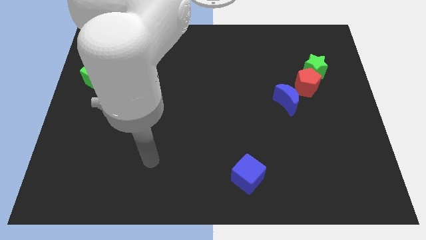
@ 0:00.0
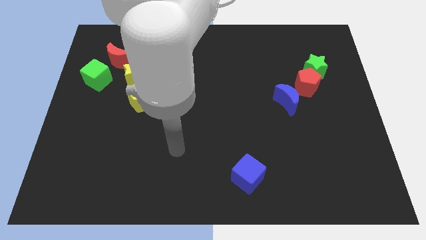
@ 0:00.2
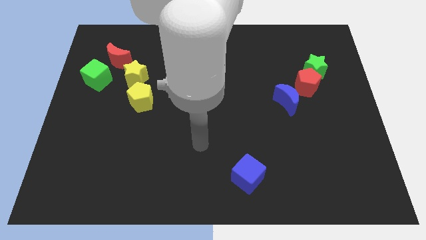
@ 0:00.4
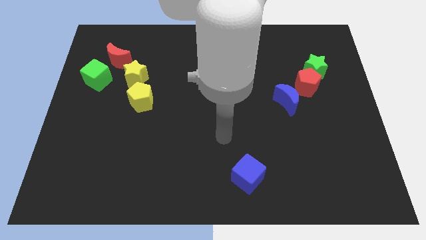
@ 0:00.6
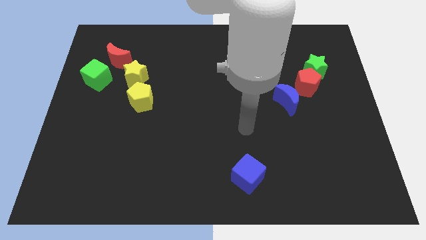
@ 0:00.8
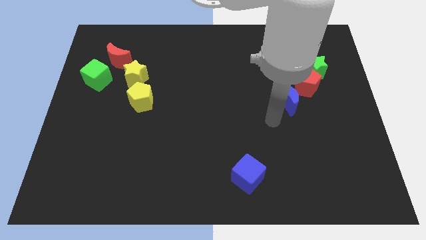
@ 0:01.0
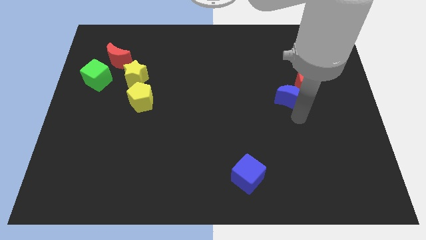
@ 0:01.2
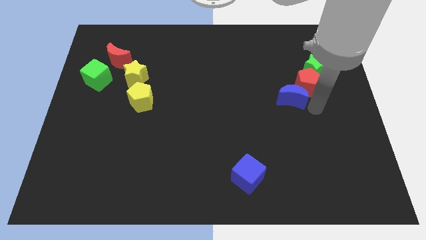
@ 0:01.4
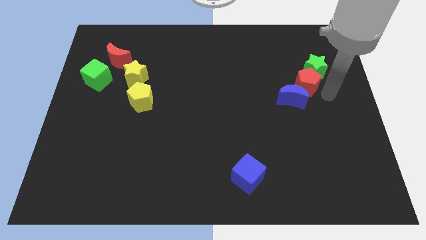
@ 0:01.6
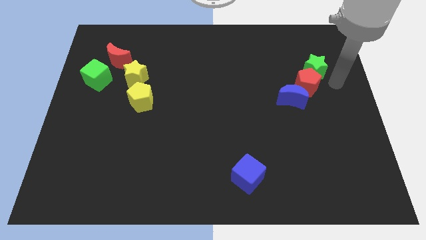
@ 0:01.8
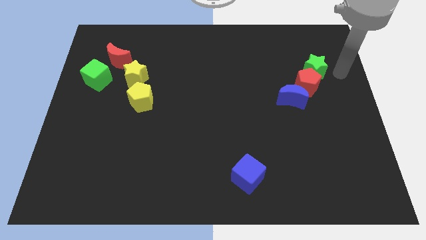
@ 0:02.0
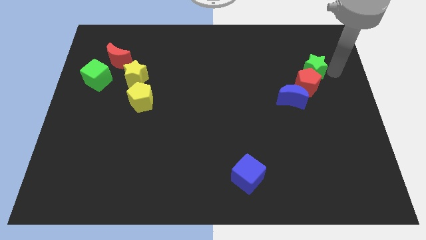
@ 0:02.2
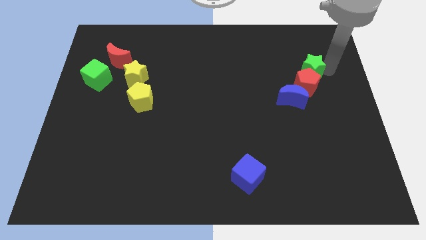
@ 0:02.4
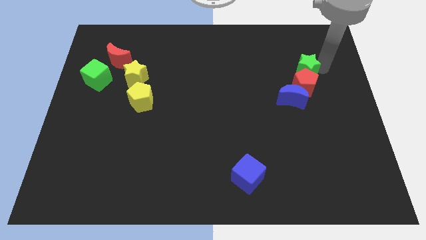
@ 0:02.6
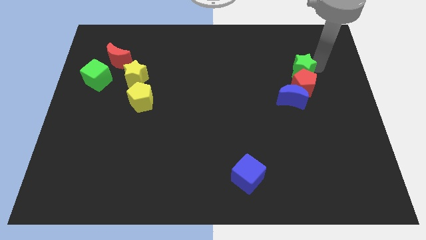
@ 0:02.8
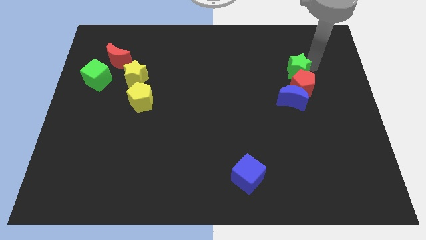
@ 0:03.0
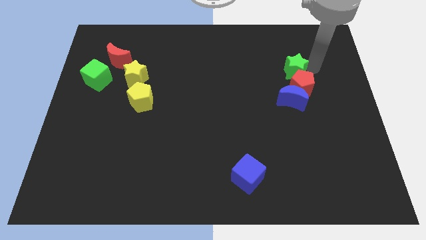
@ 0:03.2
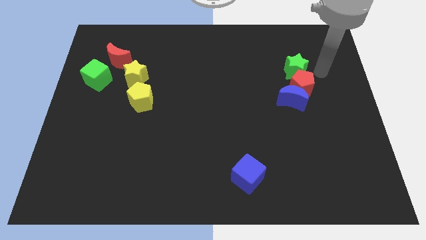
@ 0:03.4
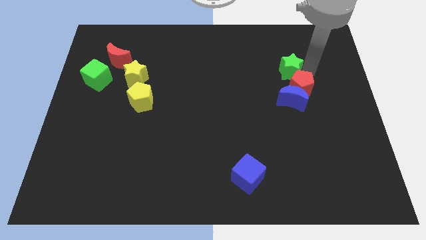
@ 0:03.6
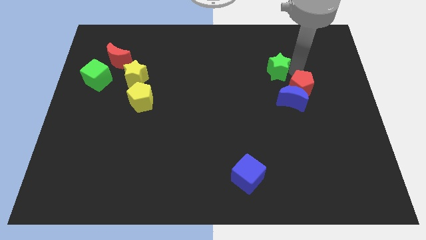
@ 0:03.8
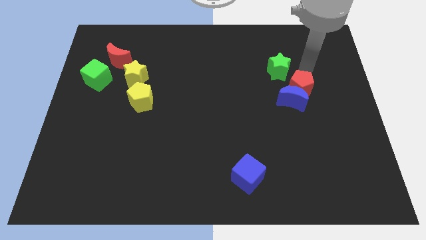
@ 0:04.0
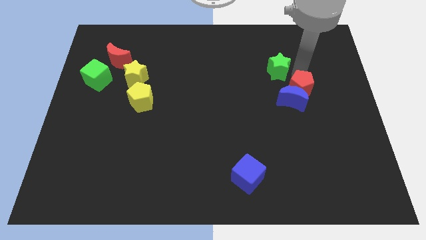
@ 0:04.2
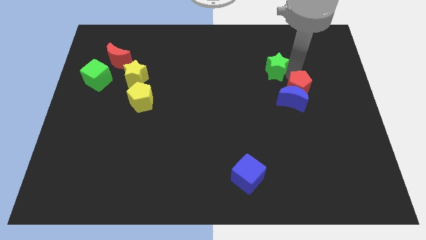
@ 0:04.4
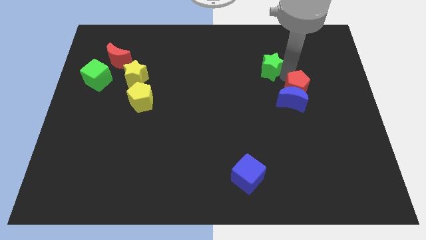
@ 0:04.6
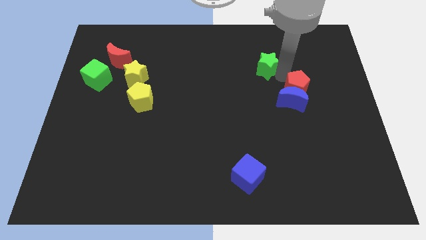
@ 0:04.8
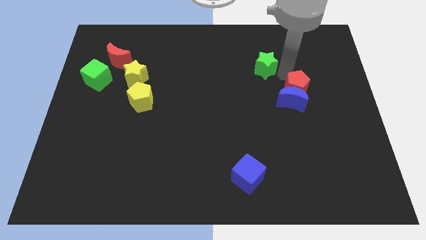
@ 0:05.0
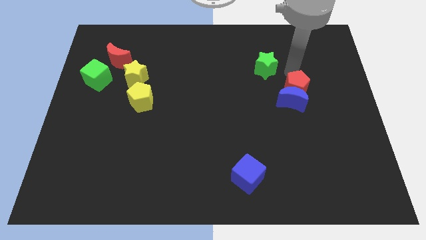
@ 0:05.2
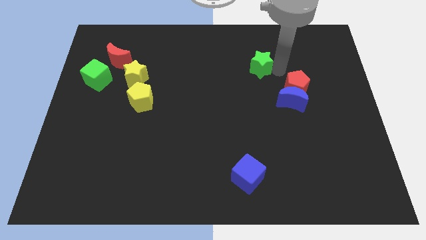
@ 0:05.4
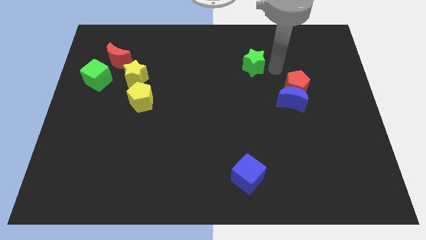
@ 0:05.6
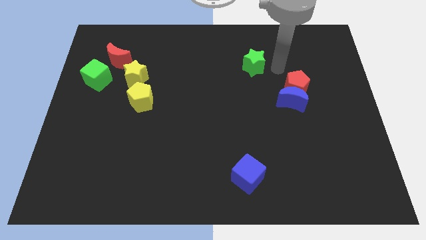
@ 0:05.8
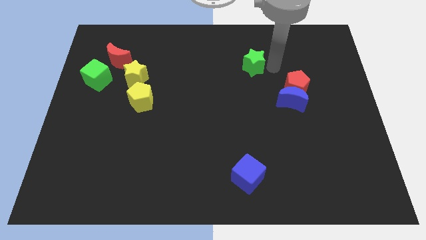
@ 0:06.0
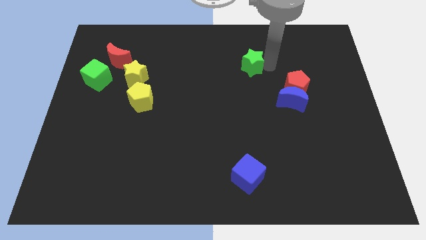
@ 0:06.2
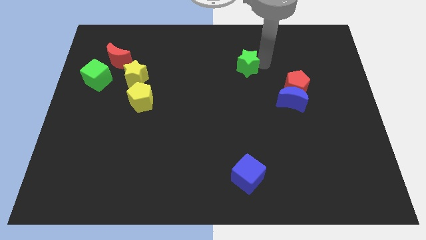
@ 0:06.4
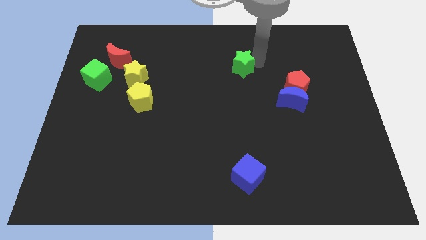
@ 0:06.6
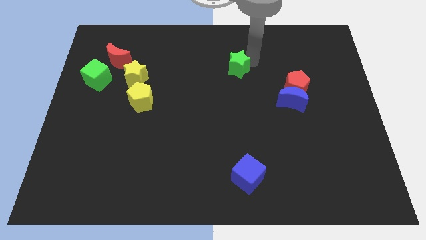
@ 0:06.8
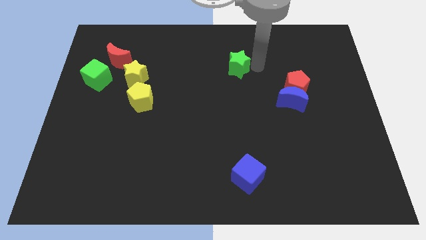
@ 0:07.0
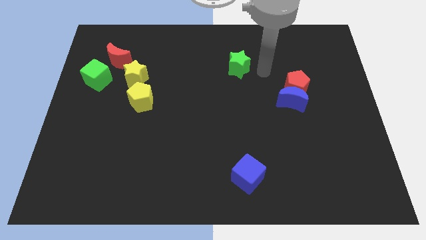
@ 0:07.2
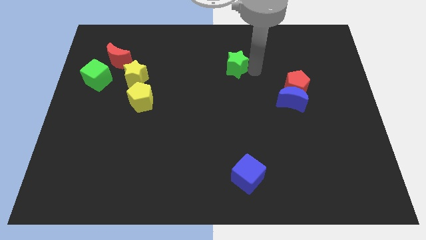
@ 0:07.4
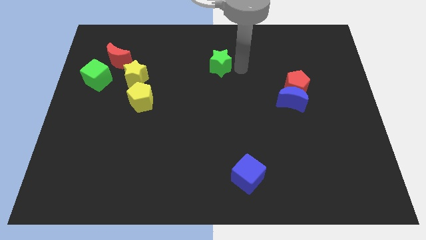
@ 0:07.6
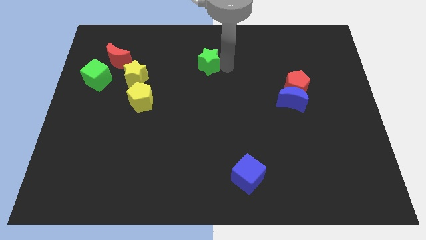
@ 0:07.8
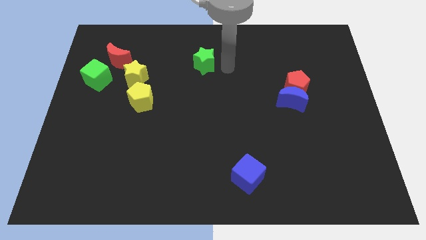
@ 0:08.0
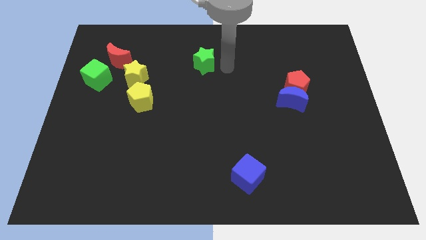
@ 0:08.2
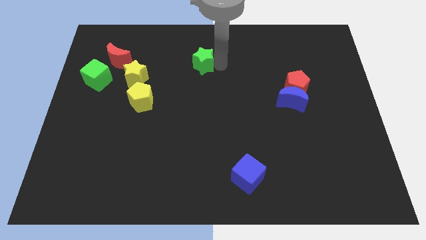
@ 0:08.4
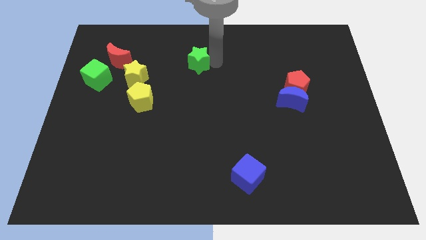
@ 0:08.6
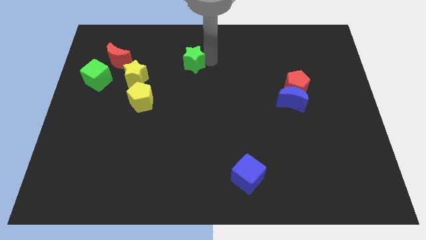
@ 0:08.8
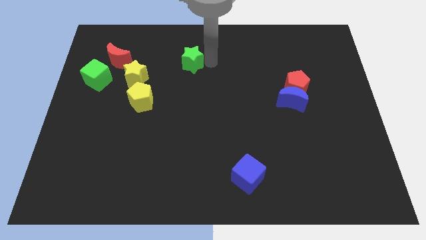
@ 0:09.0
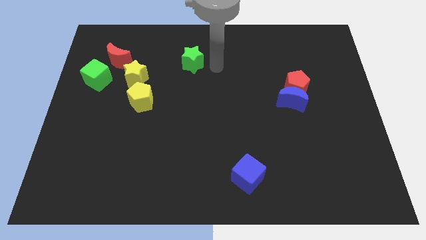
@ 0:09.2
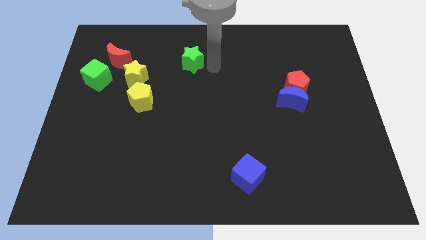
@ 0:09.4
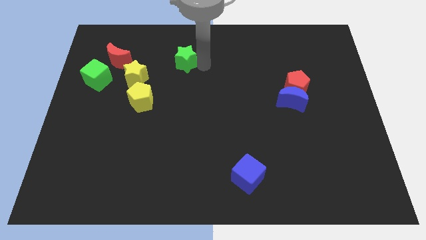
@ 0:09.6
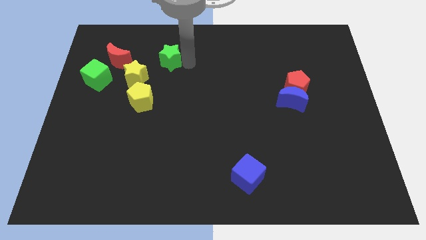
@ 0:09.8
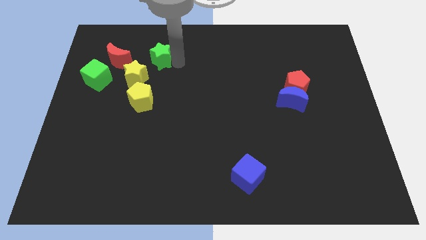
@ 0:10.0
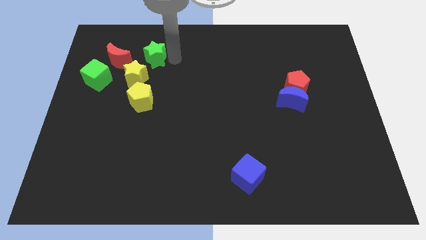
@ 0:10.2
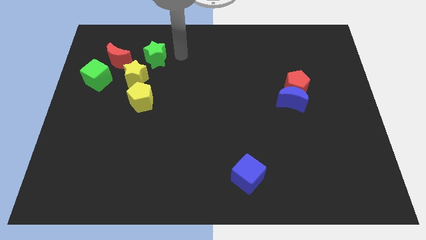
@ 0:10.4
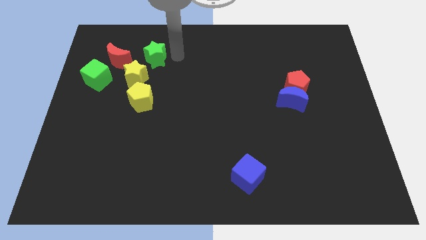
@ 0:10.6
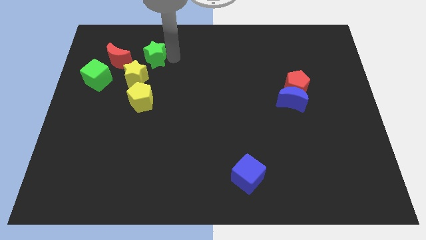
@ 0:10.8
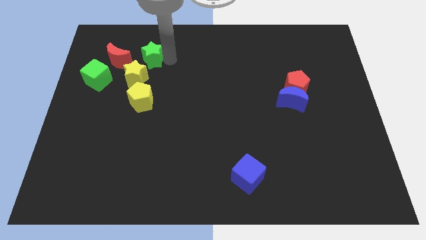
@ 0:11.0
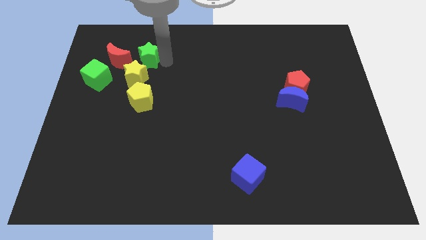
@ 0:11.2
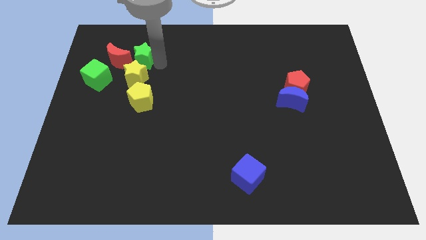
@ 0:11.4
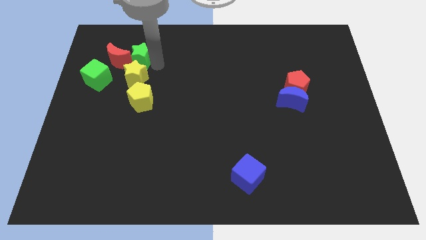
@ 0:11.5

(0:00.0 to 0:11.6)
push the green star close to the red moon
